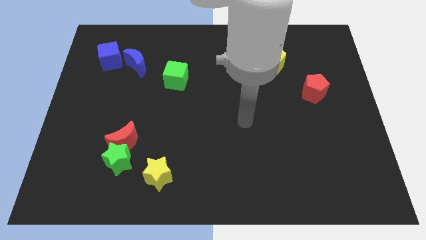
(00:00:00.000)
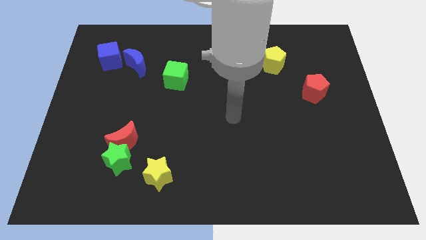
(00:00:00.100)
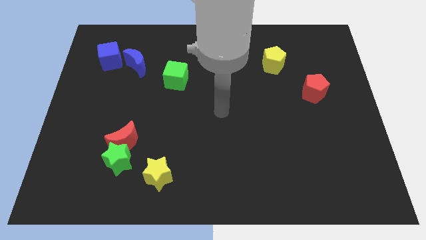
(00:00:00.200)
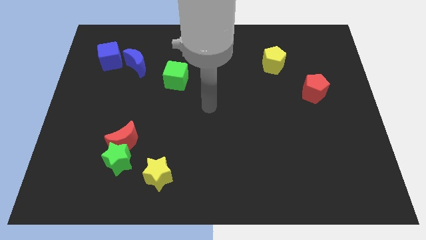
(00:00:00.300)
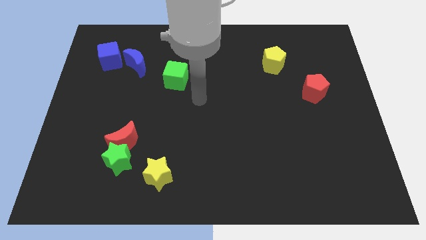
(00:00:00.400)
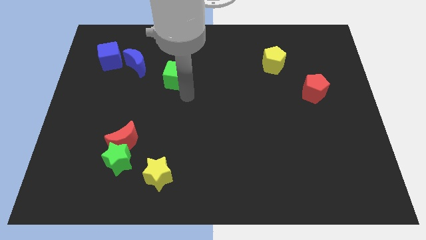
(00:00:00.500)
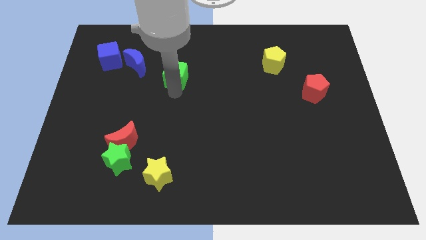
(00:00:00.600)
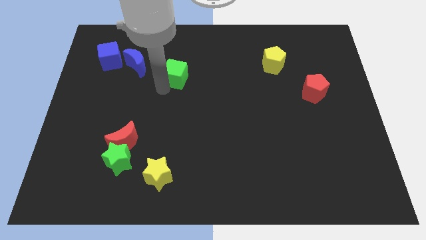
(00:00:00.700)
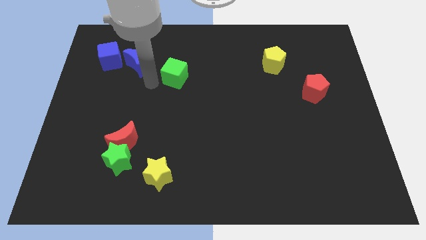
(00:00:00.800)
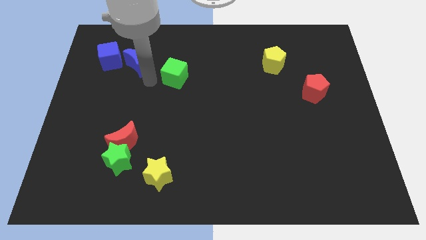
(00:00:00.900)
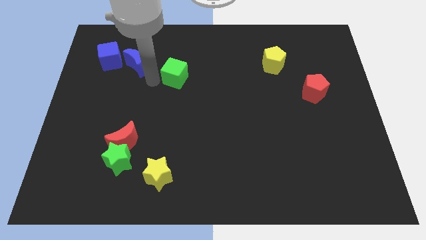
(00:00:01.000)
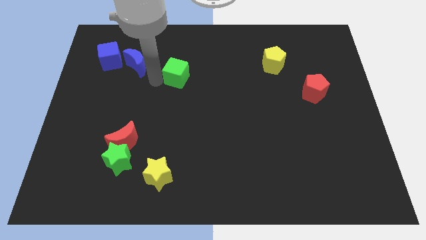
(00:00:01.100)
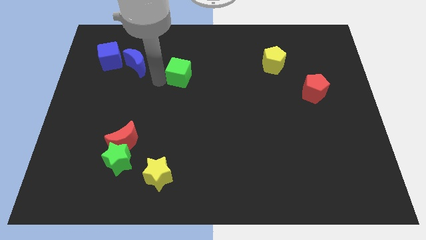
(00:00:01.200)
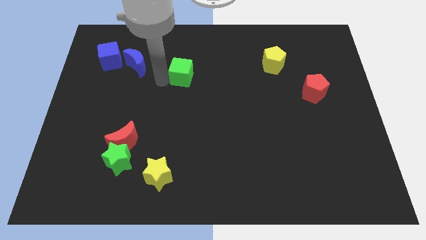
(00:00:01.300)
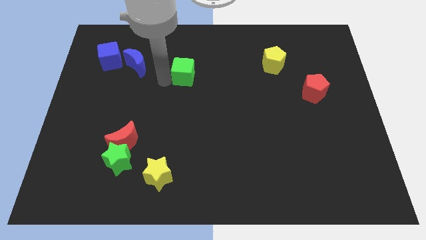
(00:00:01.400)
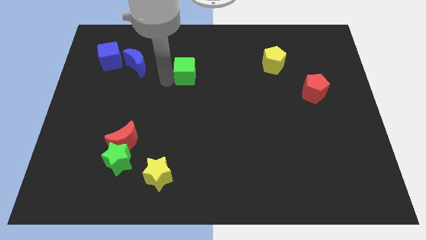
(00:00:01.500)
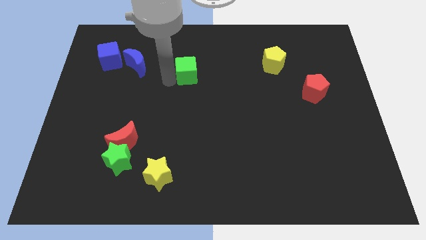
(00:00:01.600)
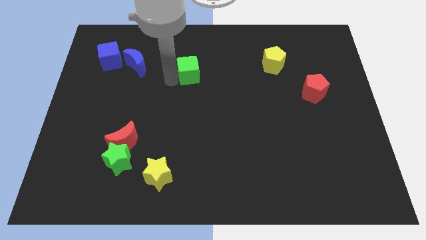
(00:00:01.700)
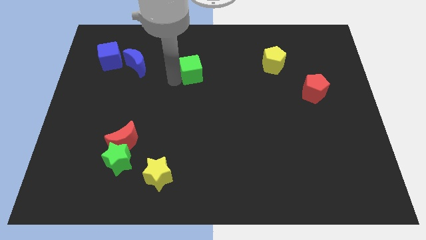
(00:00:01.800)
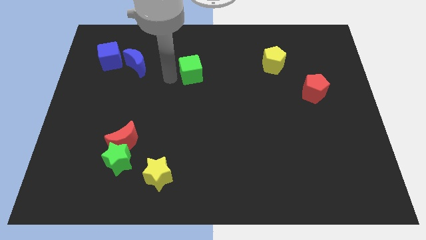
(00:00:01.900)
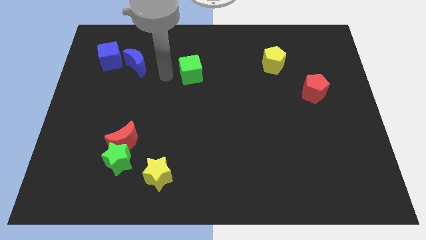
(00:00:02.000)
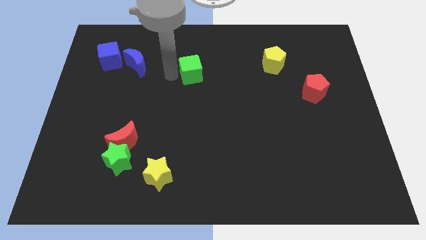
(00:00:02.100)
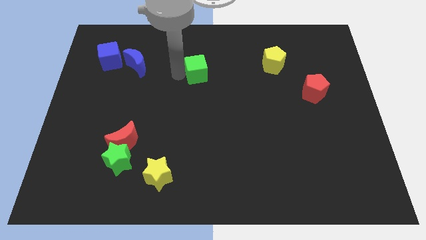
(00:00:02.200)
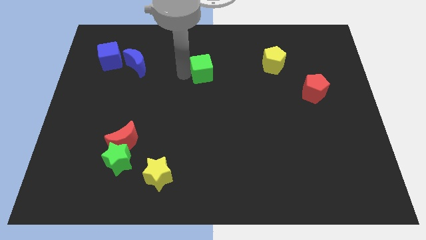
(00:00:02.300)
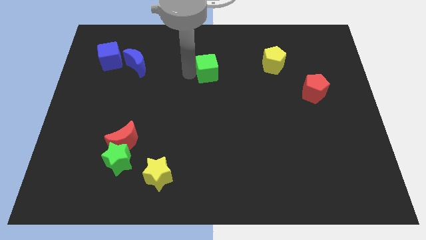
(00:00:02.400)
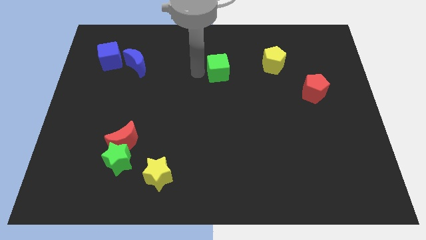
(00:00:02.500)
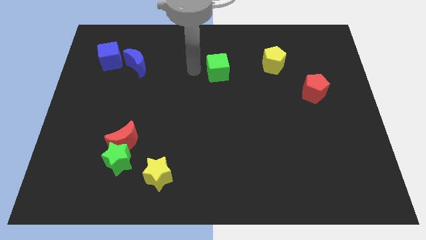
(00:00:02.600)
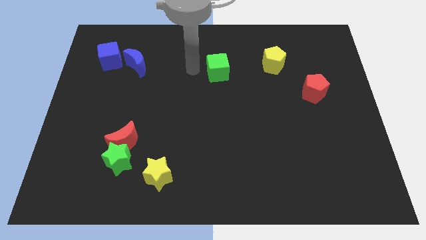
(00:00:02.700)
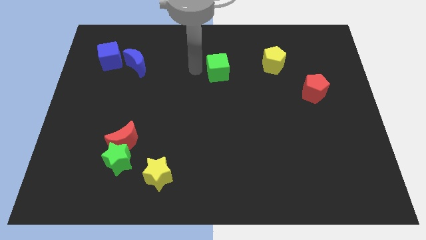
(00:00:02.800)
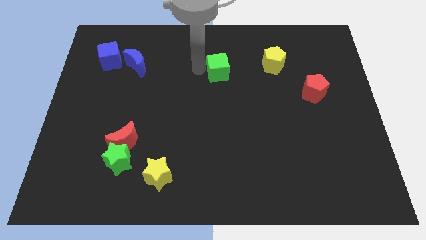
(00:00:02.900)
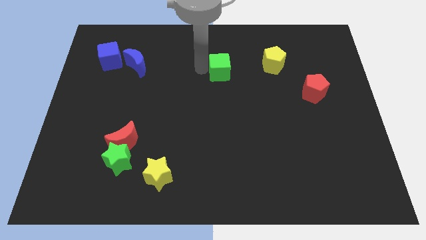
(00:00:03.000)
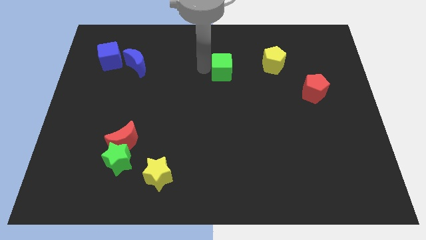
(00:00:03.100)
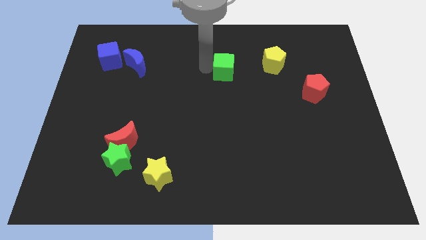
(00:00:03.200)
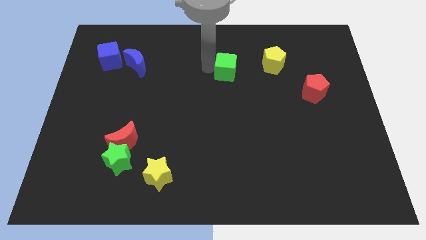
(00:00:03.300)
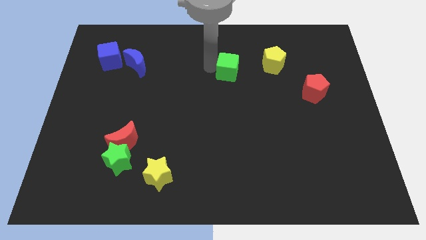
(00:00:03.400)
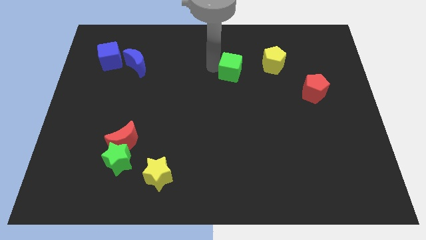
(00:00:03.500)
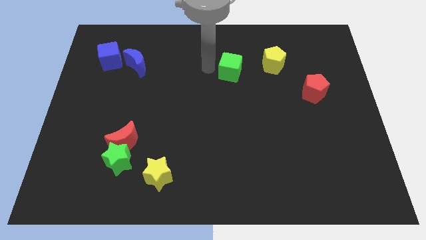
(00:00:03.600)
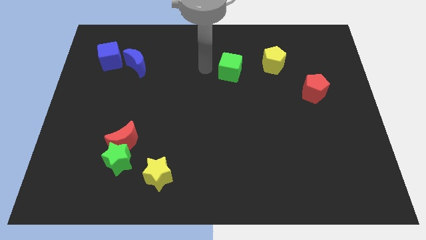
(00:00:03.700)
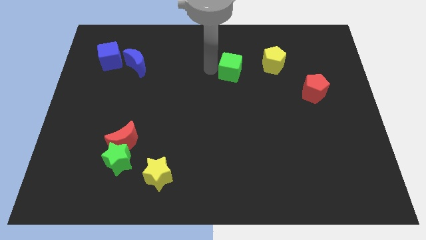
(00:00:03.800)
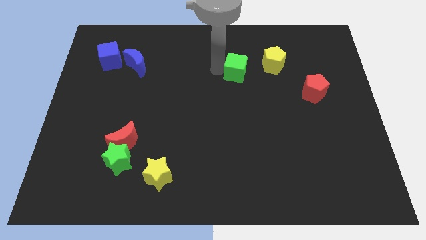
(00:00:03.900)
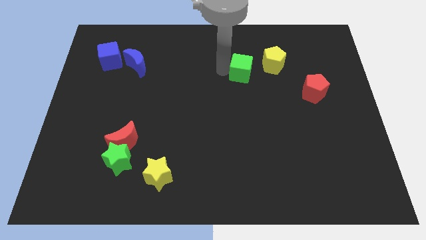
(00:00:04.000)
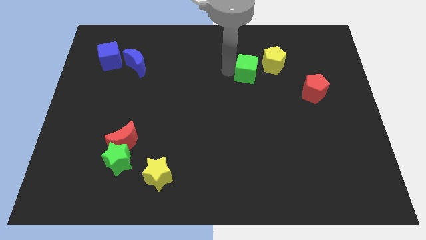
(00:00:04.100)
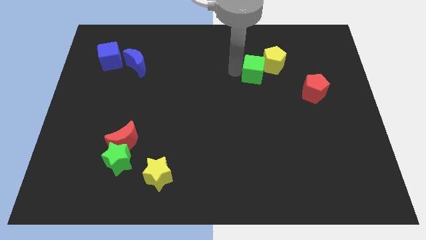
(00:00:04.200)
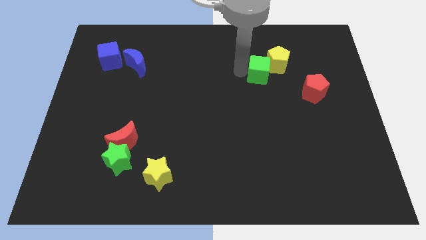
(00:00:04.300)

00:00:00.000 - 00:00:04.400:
slide the green cube right

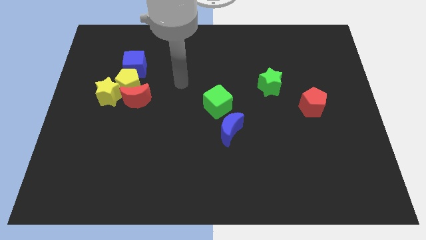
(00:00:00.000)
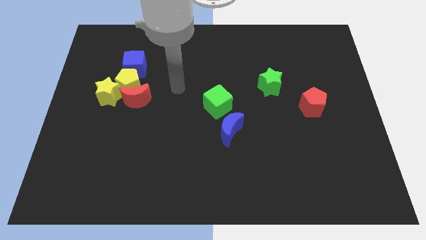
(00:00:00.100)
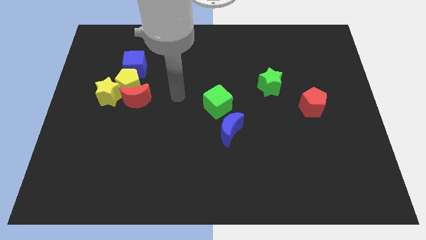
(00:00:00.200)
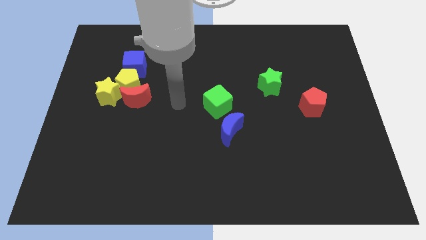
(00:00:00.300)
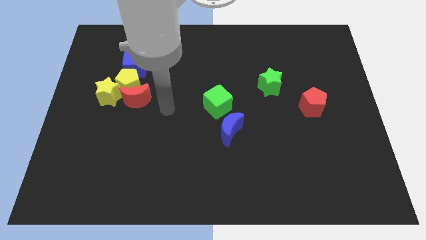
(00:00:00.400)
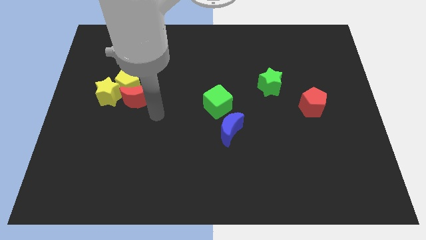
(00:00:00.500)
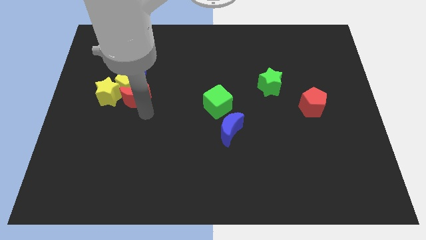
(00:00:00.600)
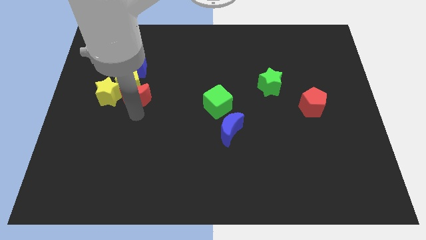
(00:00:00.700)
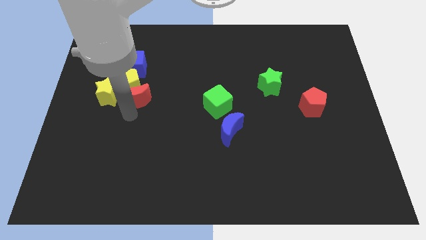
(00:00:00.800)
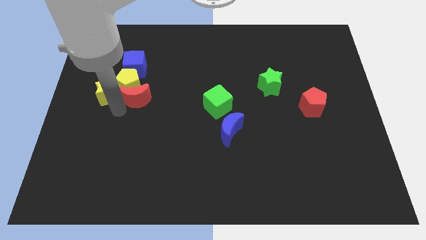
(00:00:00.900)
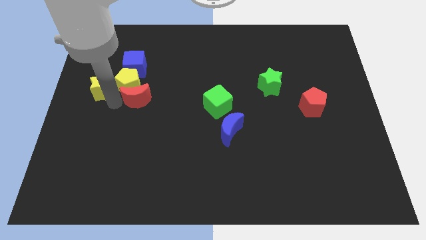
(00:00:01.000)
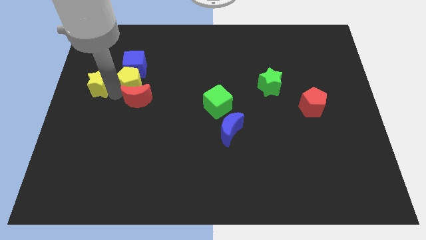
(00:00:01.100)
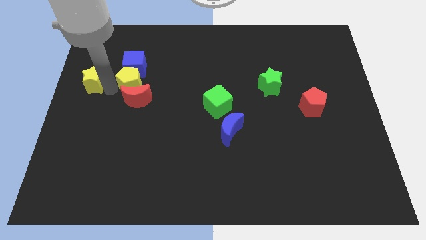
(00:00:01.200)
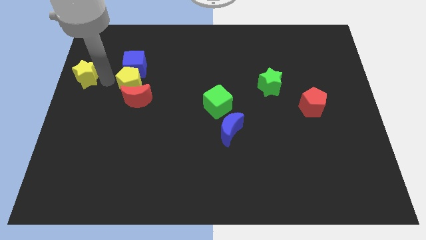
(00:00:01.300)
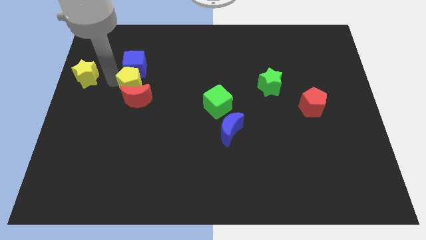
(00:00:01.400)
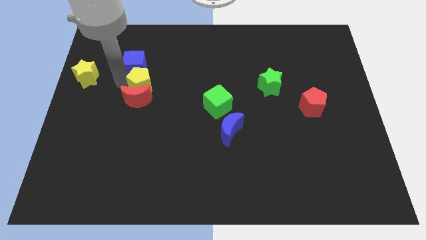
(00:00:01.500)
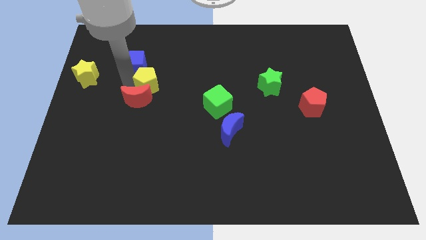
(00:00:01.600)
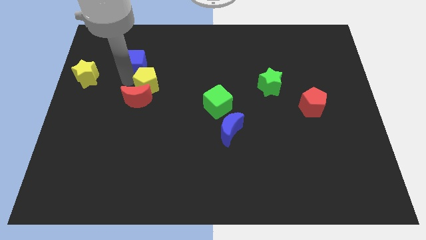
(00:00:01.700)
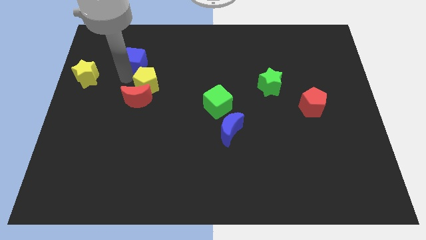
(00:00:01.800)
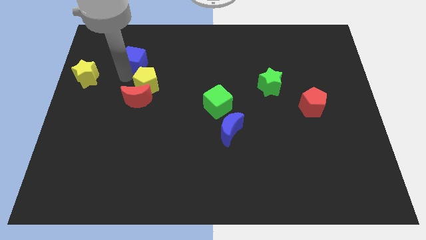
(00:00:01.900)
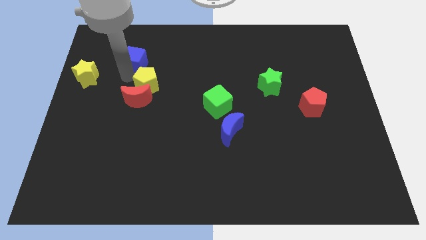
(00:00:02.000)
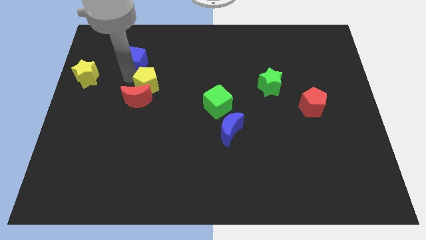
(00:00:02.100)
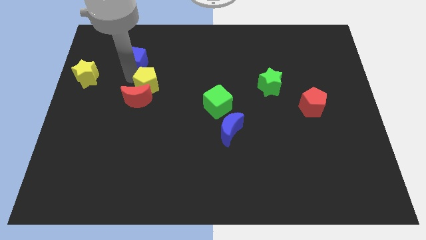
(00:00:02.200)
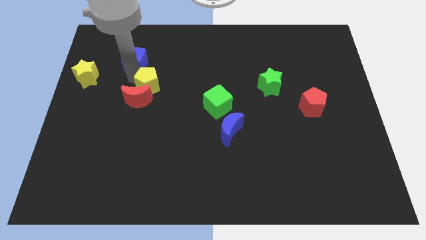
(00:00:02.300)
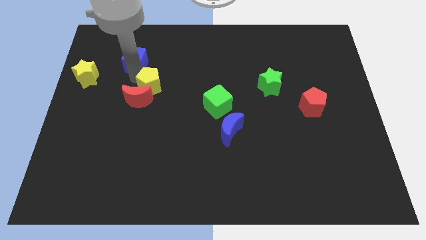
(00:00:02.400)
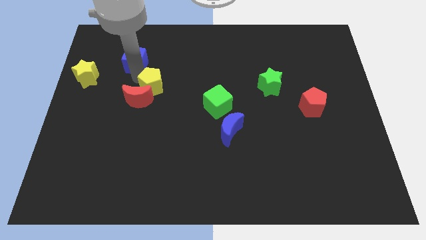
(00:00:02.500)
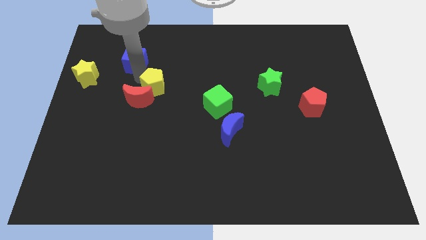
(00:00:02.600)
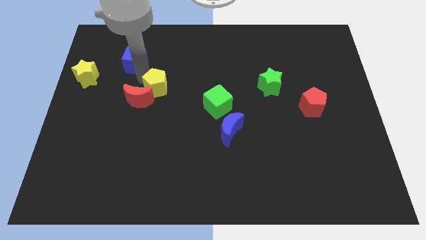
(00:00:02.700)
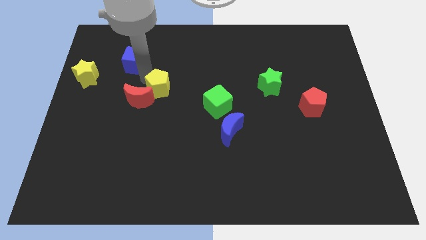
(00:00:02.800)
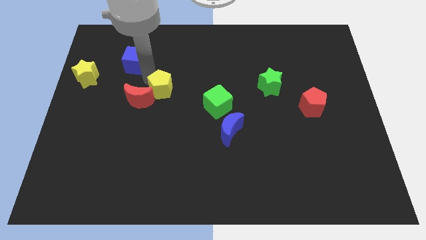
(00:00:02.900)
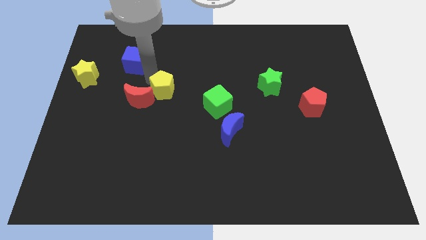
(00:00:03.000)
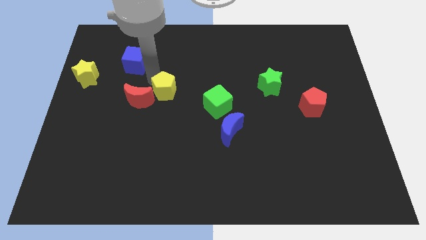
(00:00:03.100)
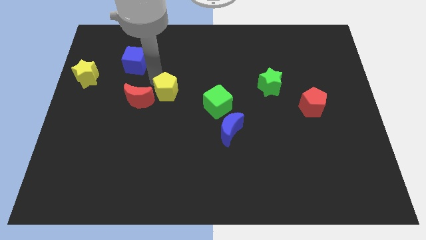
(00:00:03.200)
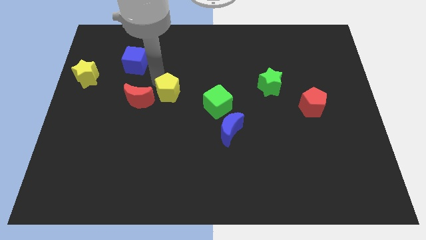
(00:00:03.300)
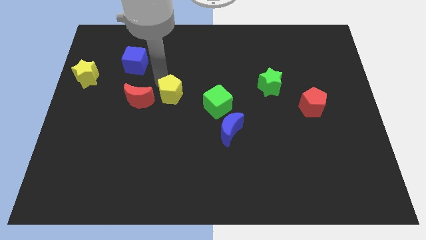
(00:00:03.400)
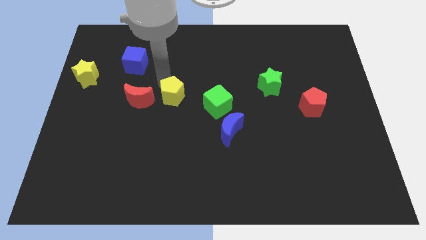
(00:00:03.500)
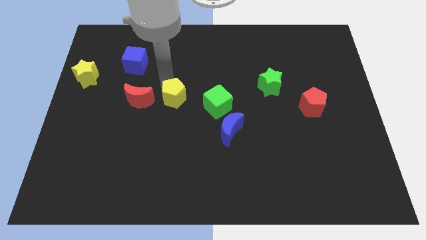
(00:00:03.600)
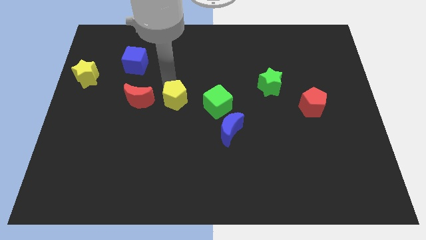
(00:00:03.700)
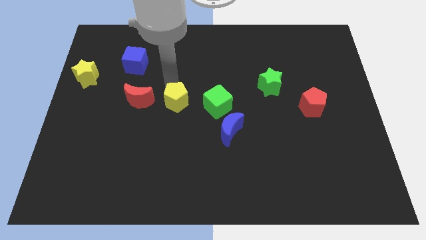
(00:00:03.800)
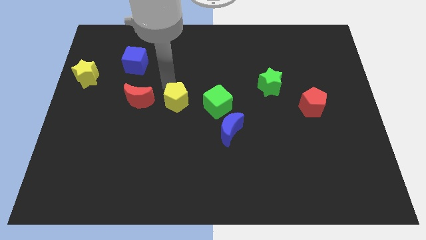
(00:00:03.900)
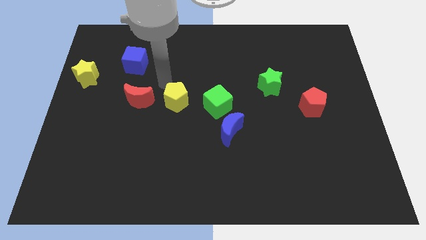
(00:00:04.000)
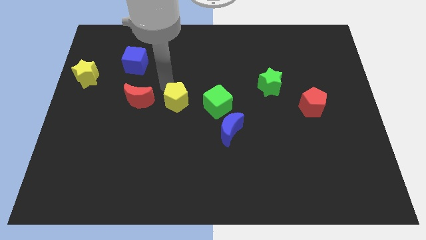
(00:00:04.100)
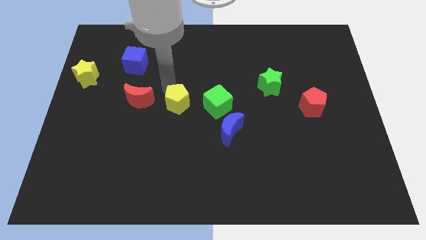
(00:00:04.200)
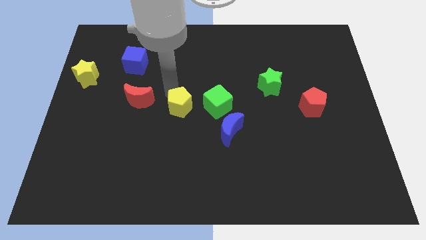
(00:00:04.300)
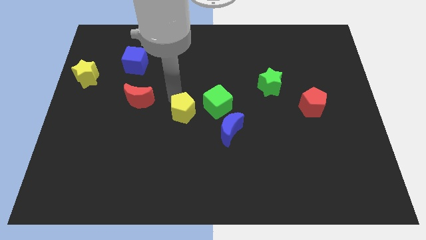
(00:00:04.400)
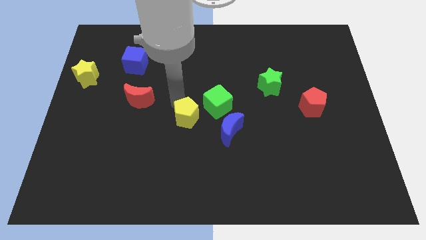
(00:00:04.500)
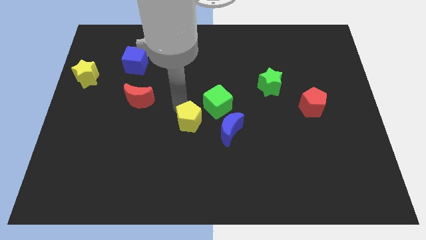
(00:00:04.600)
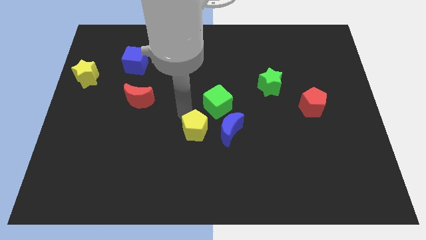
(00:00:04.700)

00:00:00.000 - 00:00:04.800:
slide the yellow pentagon down and then right
